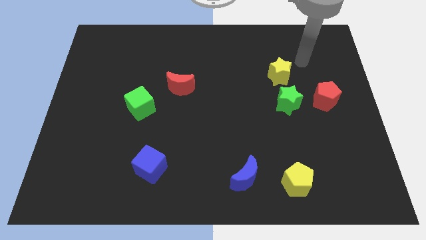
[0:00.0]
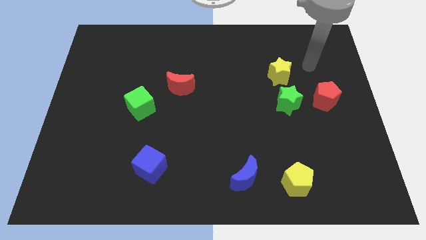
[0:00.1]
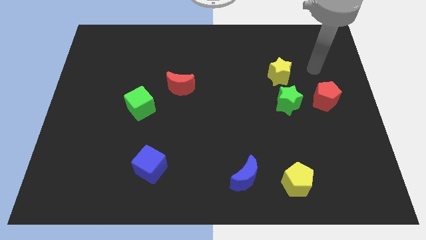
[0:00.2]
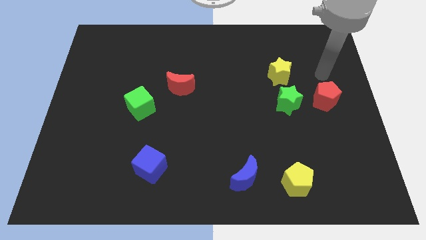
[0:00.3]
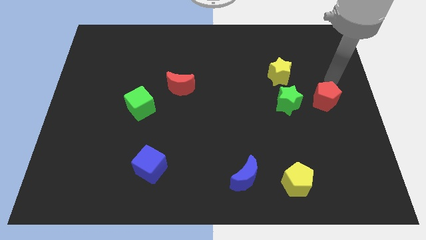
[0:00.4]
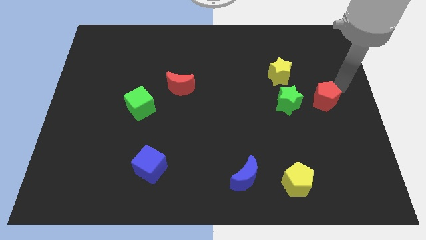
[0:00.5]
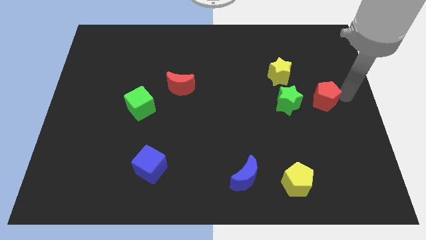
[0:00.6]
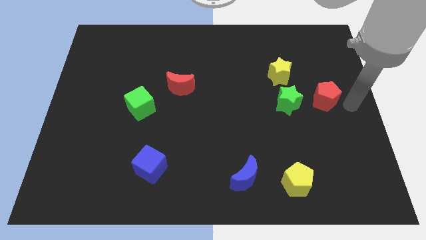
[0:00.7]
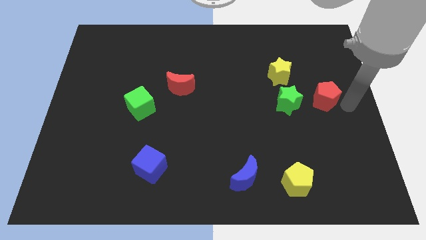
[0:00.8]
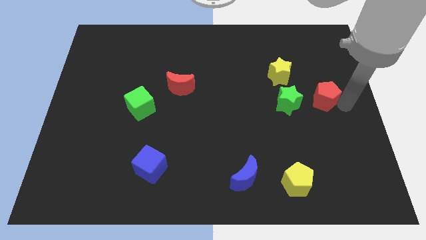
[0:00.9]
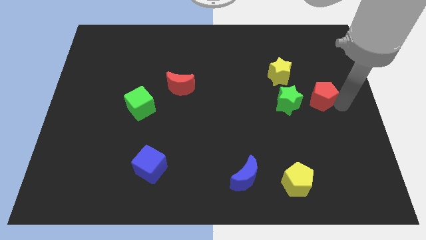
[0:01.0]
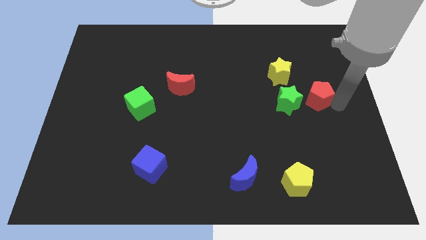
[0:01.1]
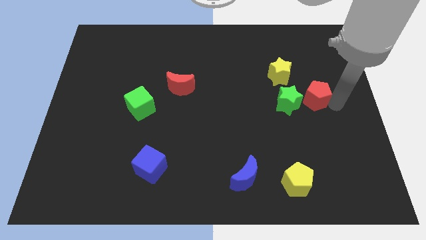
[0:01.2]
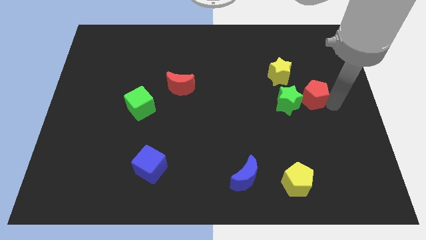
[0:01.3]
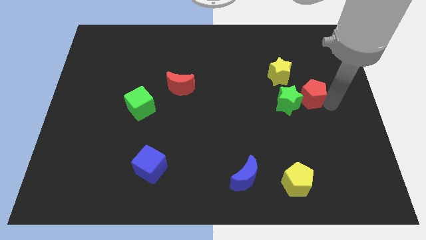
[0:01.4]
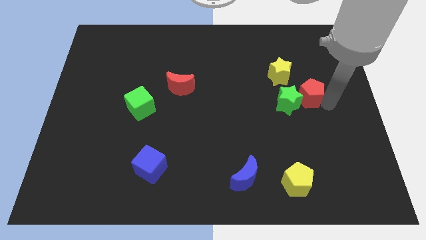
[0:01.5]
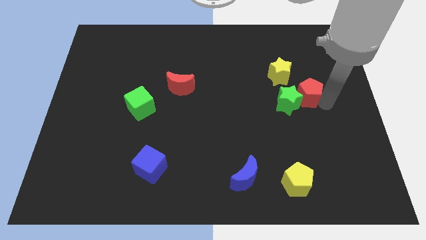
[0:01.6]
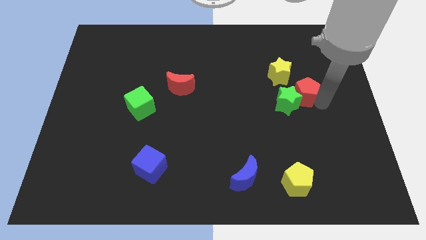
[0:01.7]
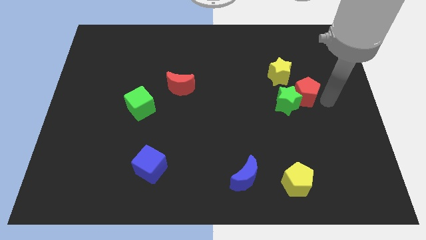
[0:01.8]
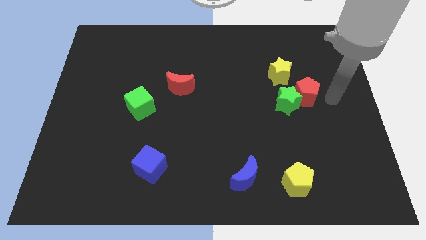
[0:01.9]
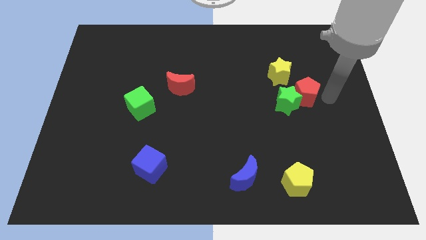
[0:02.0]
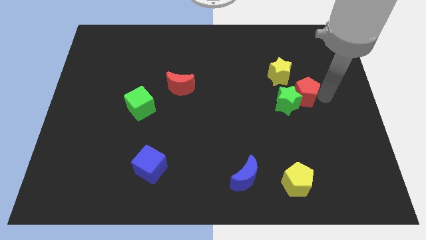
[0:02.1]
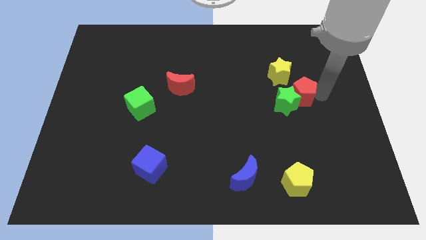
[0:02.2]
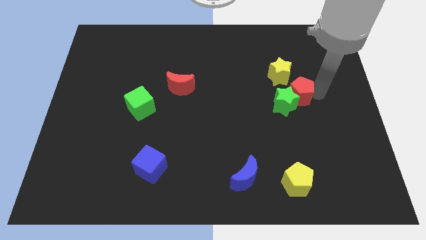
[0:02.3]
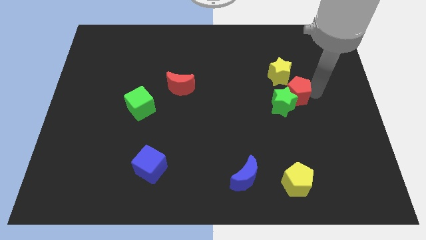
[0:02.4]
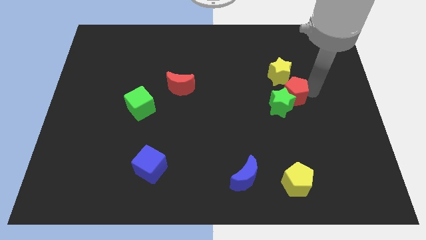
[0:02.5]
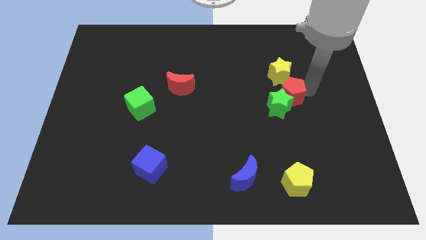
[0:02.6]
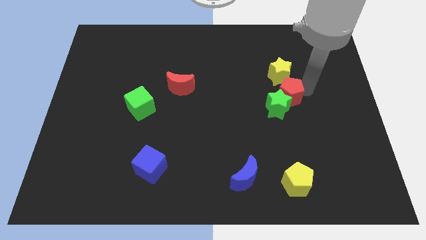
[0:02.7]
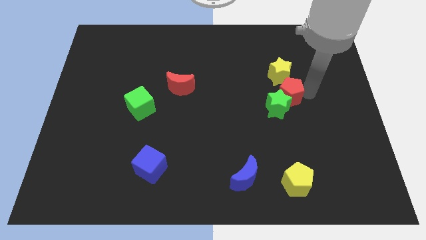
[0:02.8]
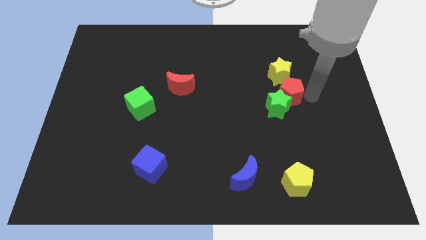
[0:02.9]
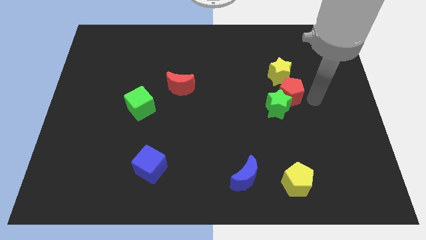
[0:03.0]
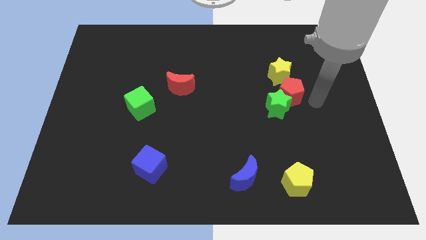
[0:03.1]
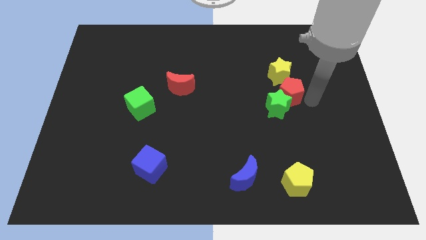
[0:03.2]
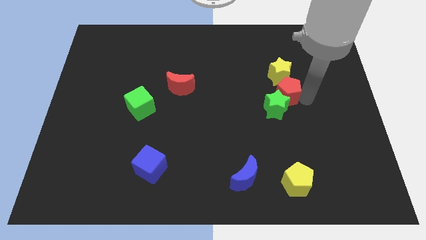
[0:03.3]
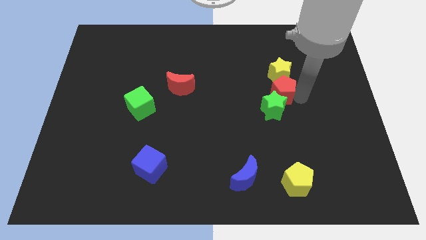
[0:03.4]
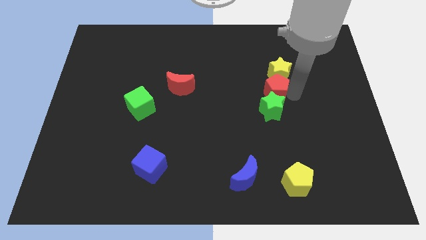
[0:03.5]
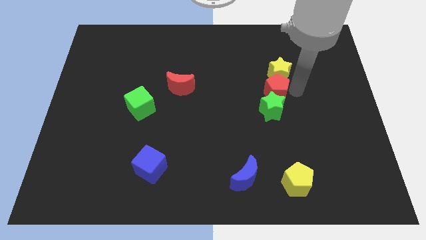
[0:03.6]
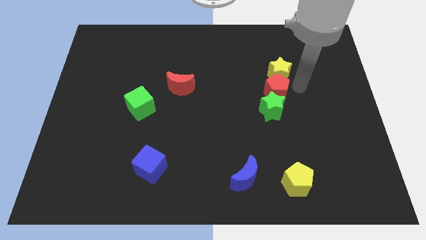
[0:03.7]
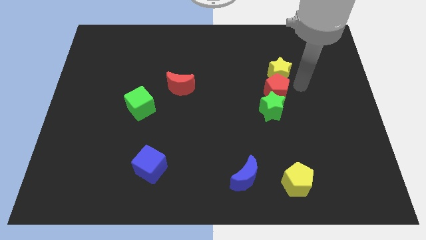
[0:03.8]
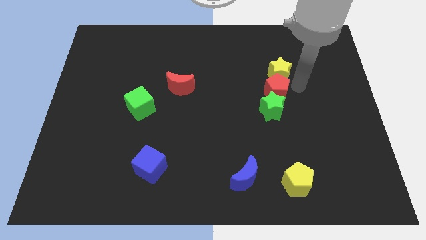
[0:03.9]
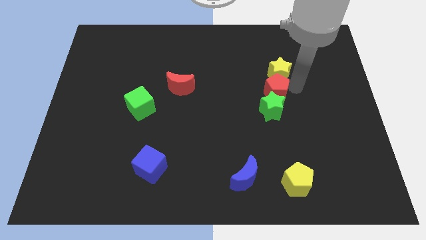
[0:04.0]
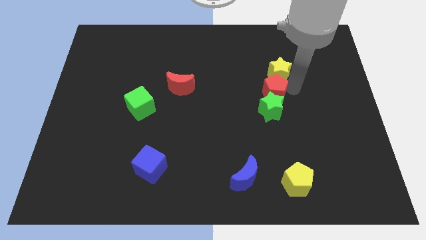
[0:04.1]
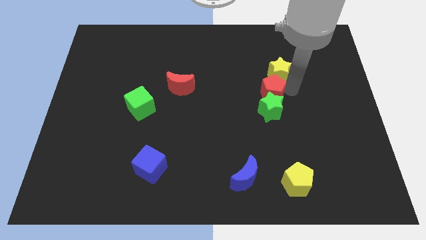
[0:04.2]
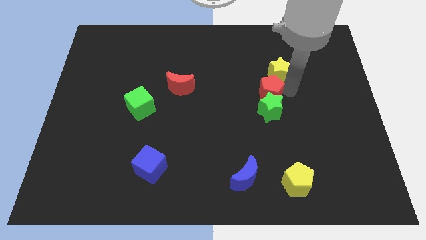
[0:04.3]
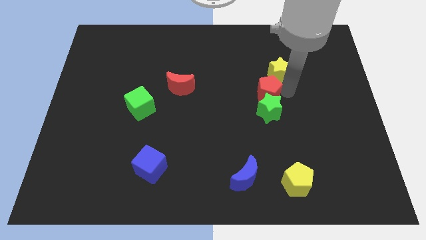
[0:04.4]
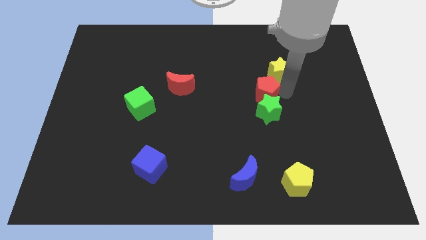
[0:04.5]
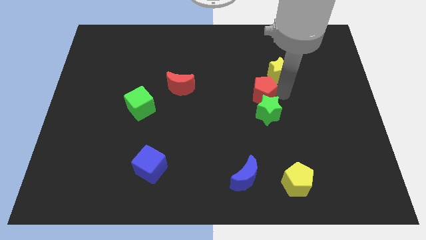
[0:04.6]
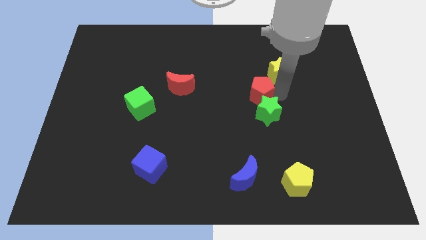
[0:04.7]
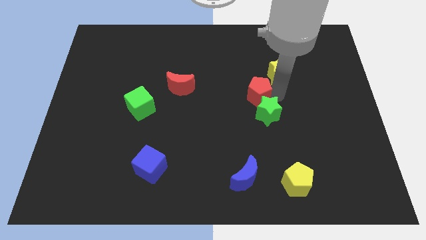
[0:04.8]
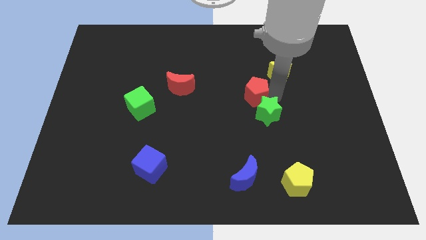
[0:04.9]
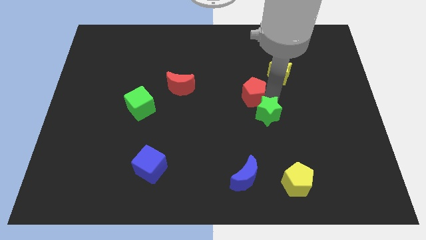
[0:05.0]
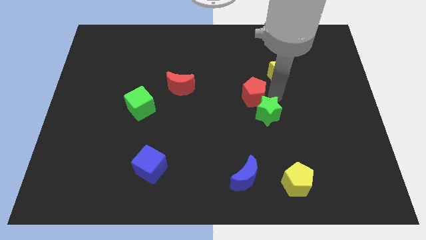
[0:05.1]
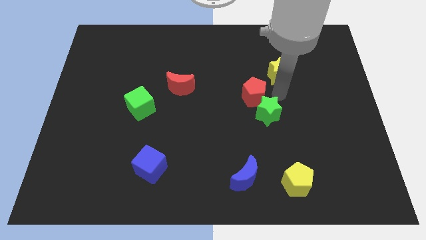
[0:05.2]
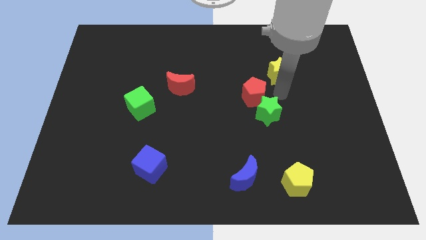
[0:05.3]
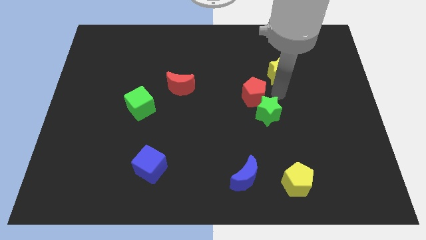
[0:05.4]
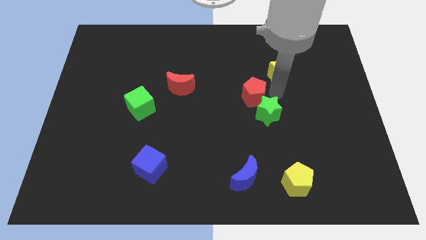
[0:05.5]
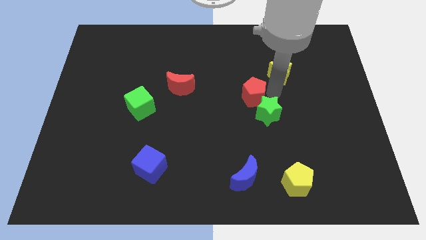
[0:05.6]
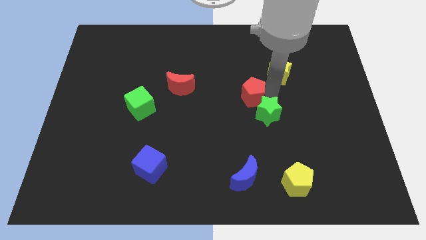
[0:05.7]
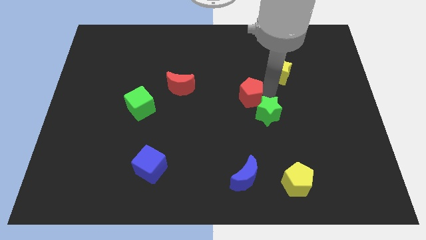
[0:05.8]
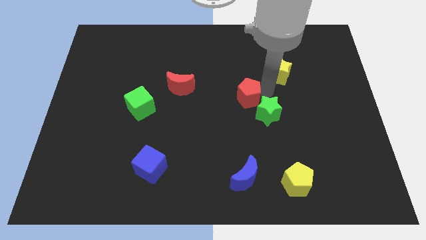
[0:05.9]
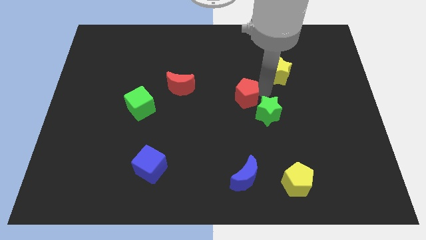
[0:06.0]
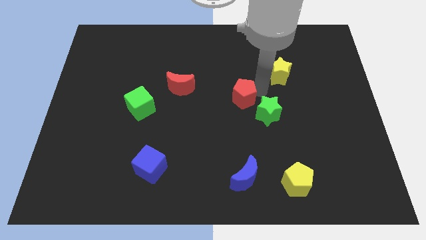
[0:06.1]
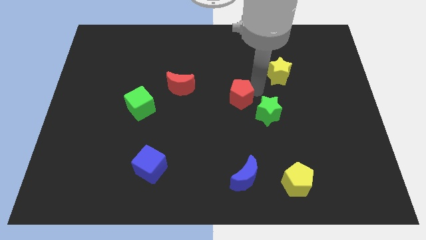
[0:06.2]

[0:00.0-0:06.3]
push the red pentagon to the left

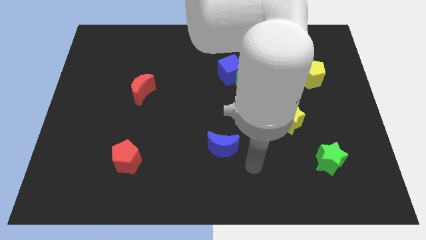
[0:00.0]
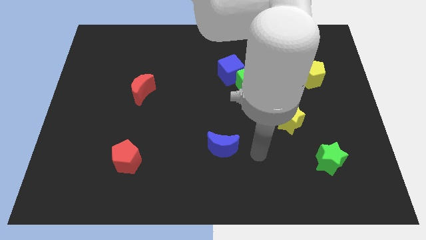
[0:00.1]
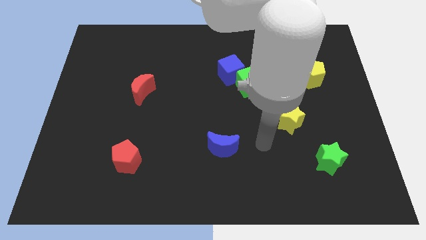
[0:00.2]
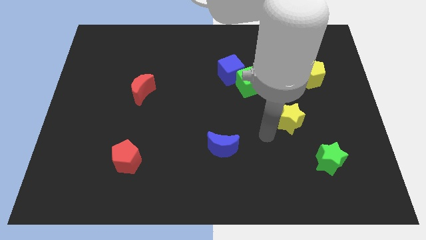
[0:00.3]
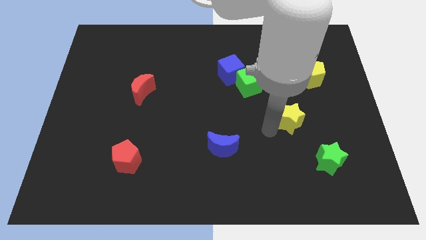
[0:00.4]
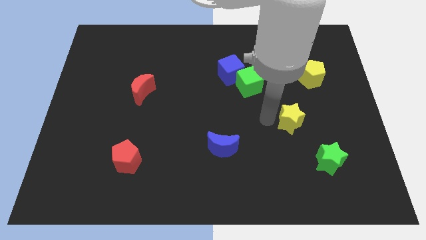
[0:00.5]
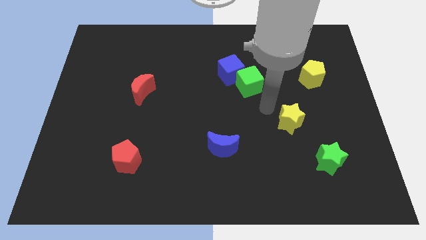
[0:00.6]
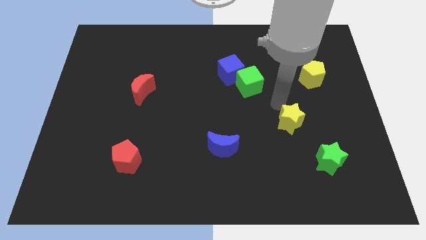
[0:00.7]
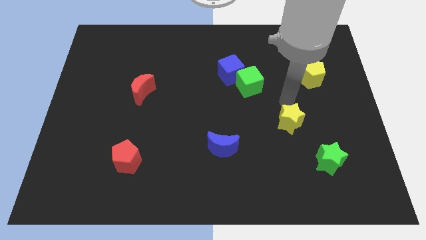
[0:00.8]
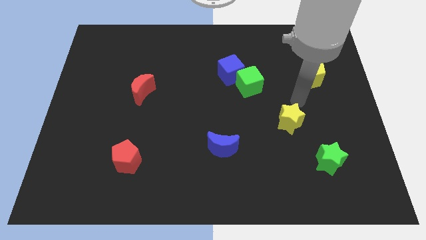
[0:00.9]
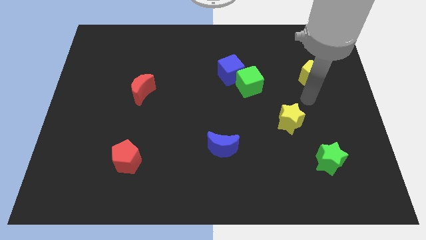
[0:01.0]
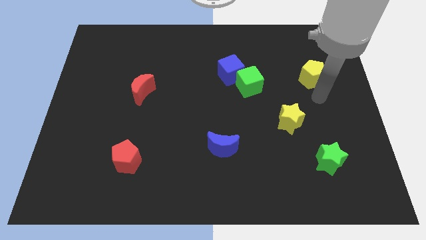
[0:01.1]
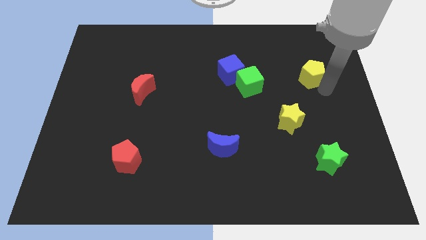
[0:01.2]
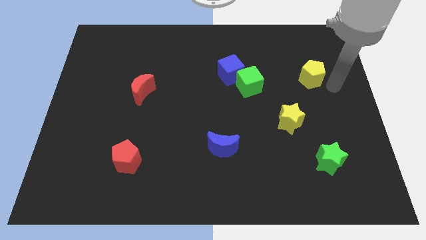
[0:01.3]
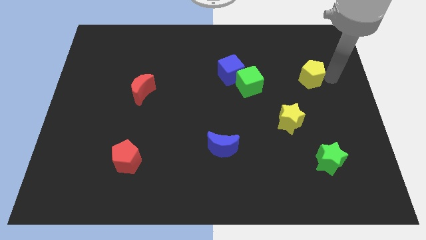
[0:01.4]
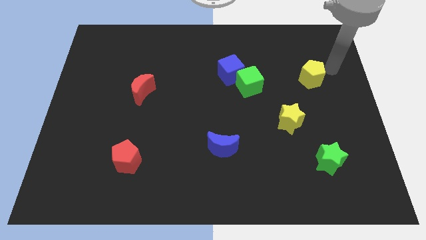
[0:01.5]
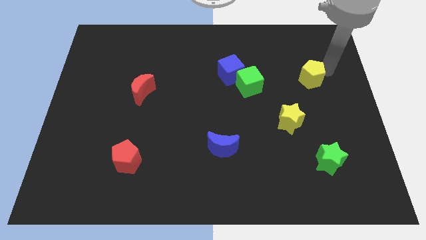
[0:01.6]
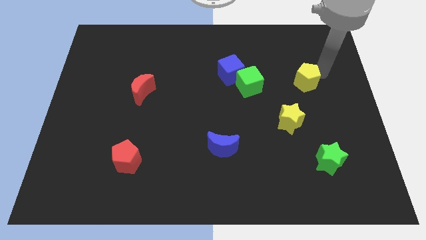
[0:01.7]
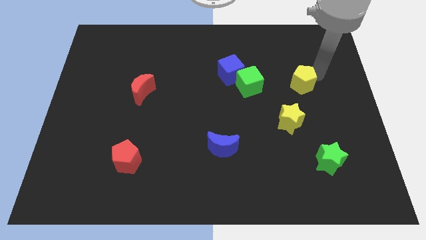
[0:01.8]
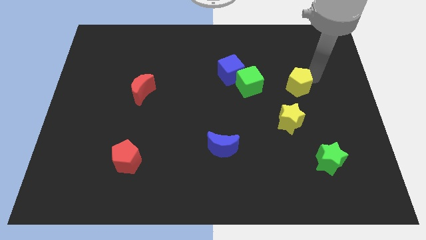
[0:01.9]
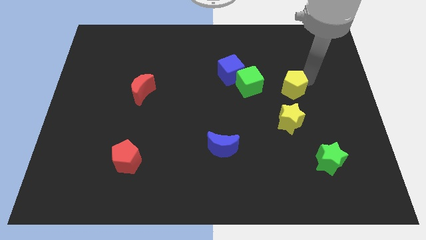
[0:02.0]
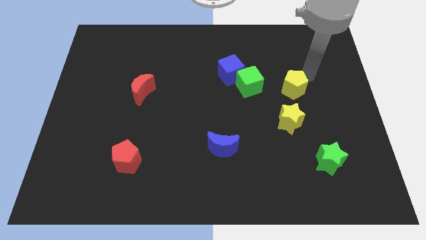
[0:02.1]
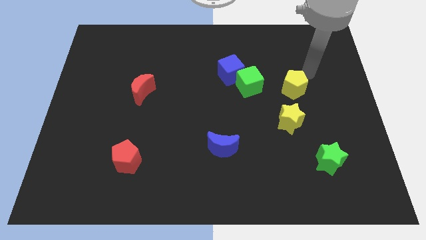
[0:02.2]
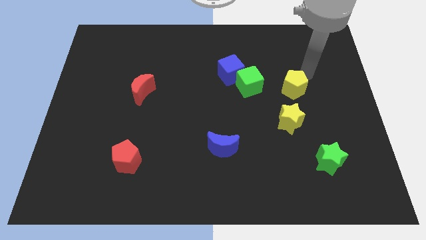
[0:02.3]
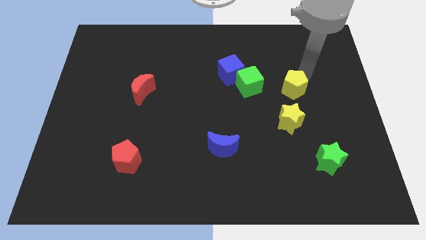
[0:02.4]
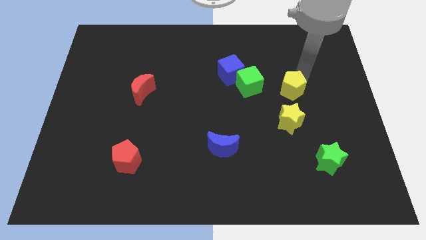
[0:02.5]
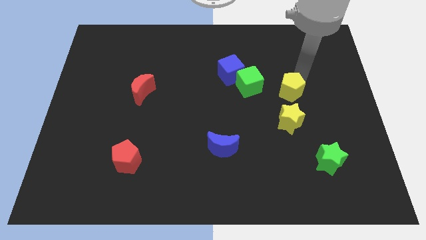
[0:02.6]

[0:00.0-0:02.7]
slide the yellow pentagon downwards and to the left diagonally somewhat
